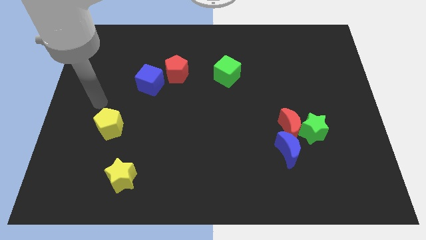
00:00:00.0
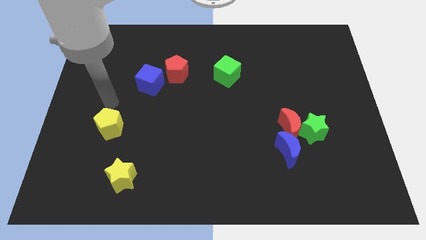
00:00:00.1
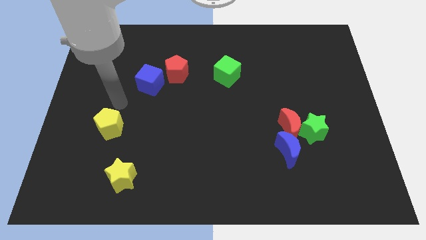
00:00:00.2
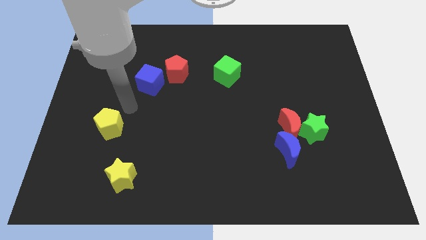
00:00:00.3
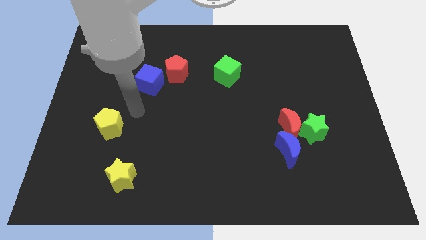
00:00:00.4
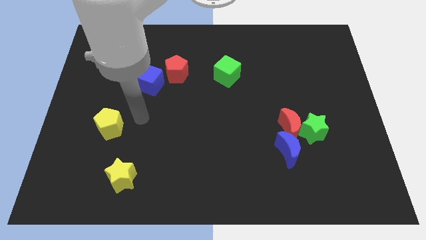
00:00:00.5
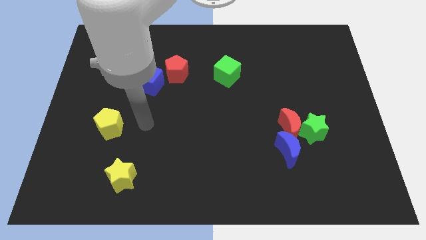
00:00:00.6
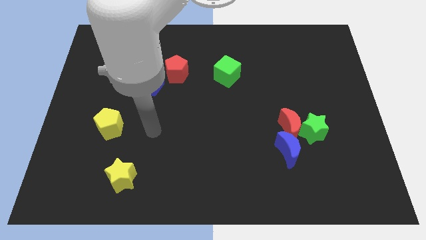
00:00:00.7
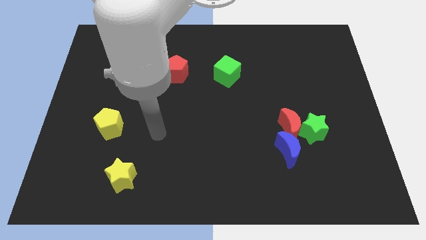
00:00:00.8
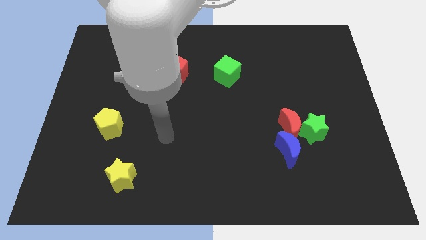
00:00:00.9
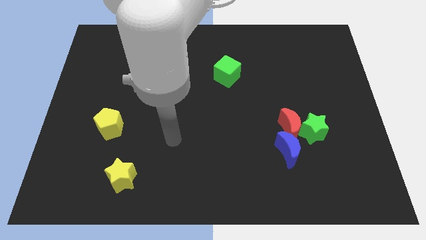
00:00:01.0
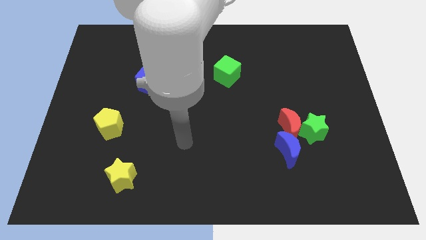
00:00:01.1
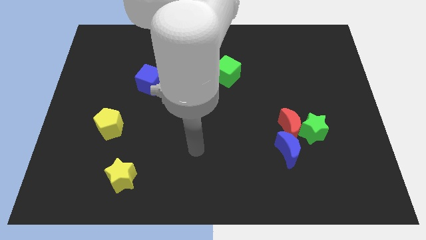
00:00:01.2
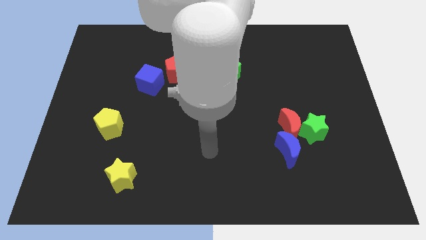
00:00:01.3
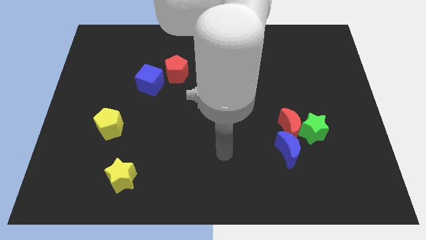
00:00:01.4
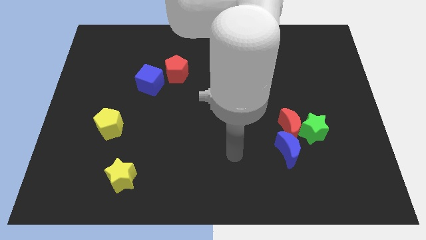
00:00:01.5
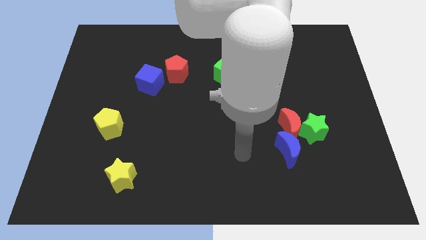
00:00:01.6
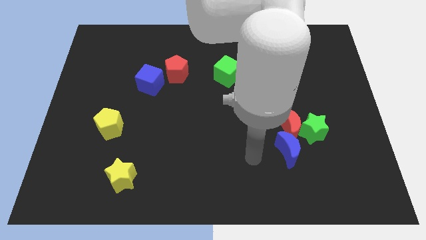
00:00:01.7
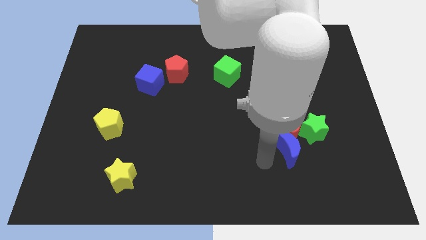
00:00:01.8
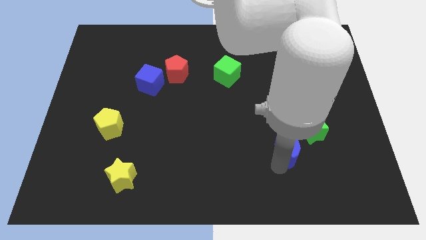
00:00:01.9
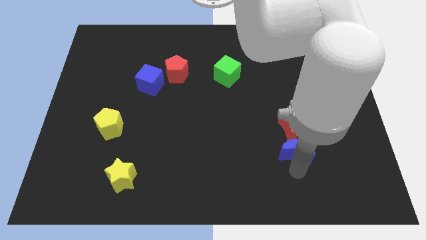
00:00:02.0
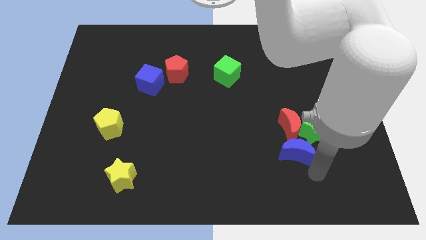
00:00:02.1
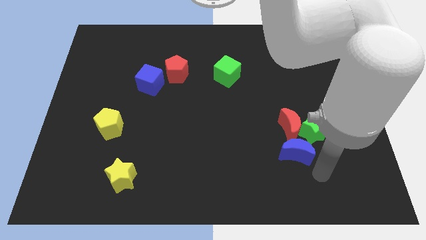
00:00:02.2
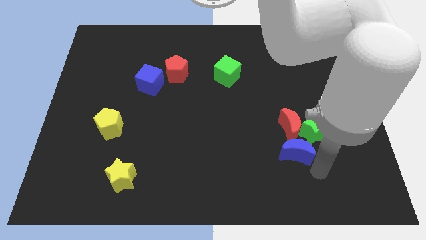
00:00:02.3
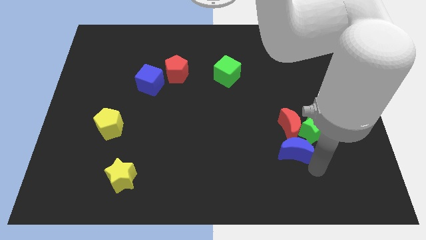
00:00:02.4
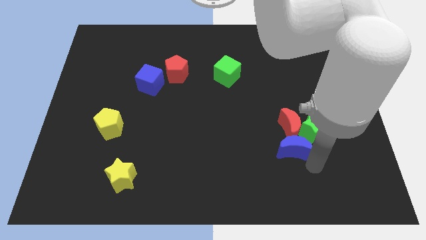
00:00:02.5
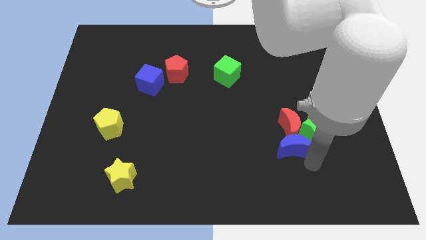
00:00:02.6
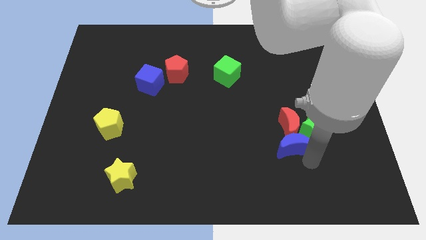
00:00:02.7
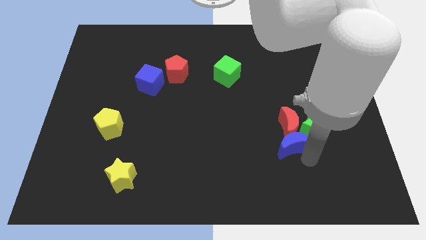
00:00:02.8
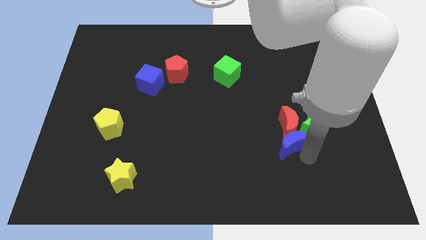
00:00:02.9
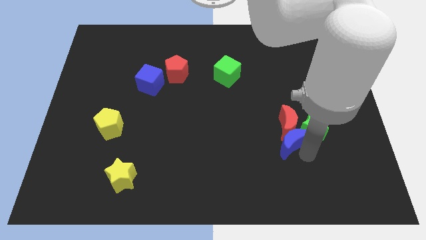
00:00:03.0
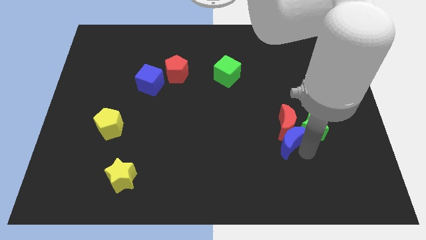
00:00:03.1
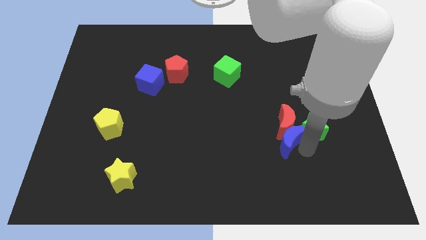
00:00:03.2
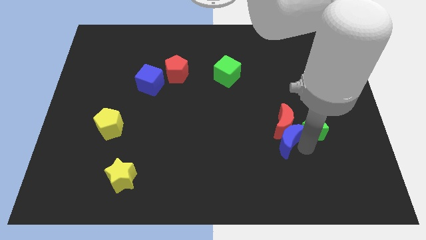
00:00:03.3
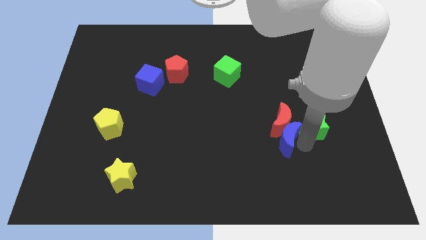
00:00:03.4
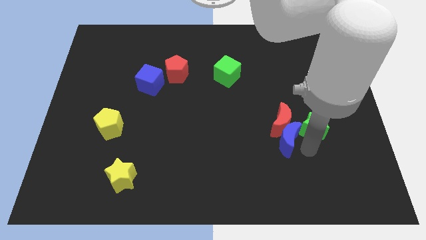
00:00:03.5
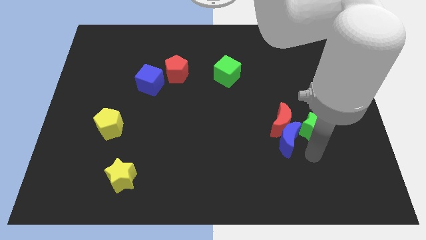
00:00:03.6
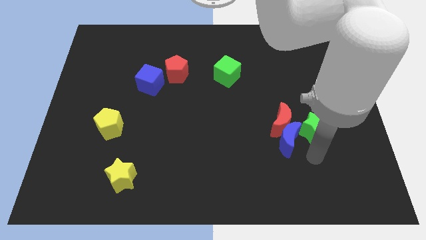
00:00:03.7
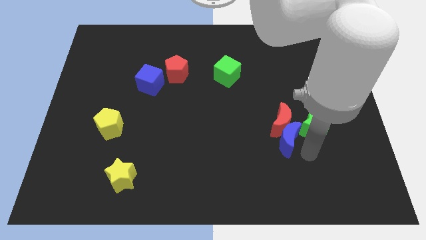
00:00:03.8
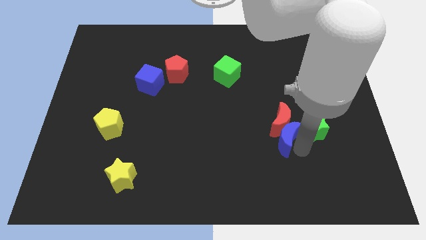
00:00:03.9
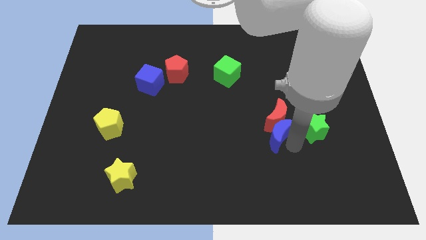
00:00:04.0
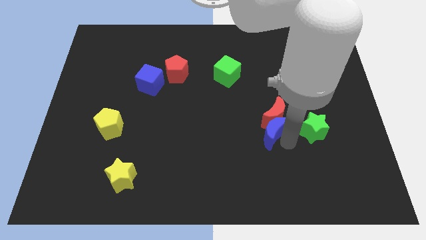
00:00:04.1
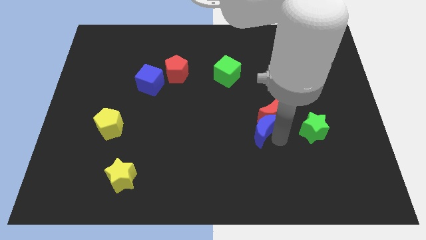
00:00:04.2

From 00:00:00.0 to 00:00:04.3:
move the blue moon somewhat up and then to the left

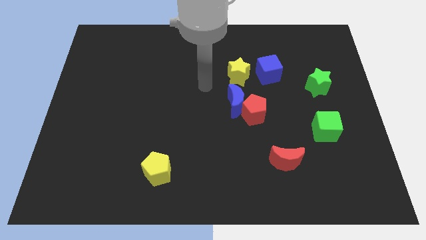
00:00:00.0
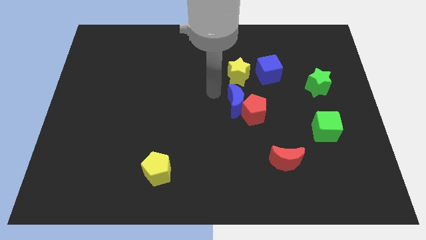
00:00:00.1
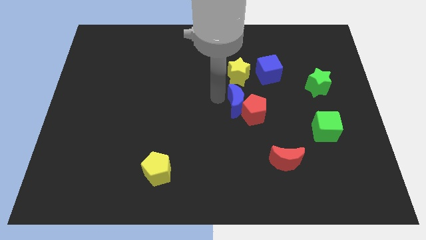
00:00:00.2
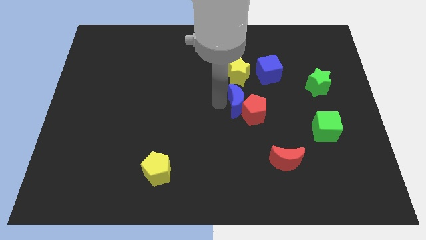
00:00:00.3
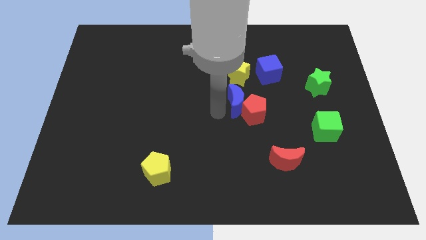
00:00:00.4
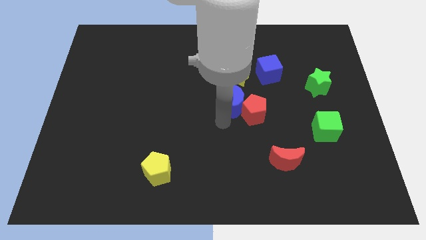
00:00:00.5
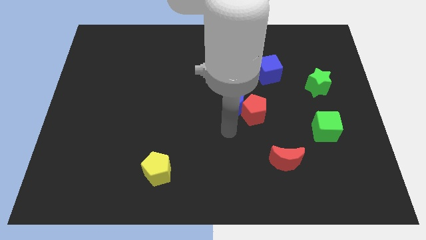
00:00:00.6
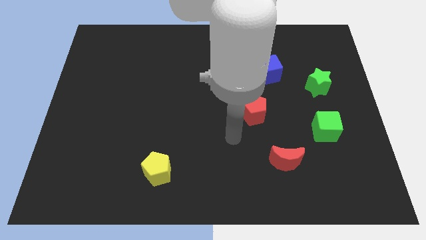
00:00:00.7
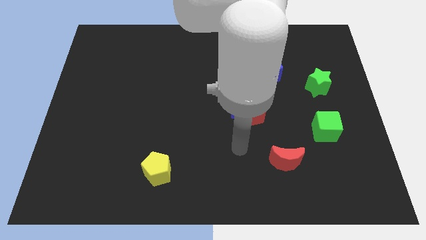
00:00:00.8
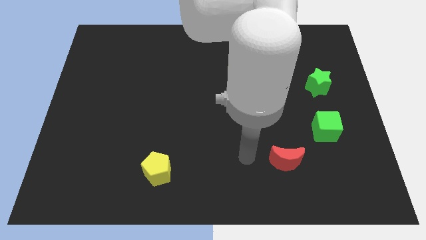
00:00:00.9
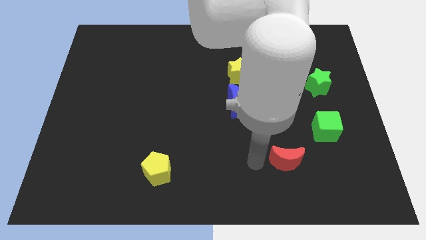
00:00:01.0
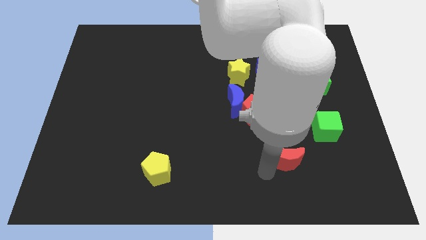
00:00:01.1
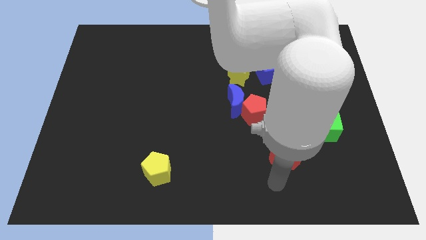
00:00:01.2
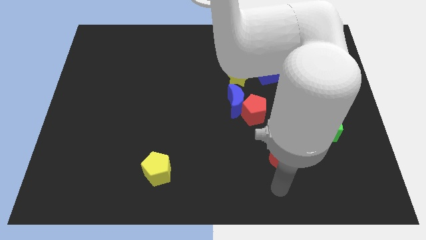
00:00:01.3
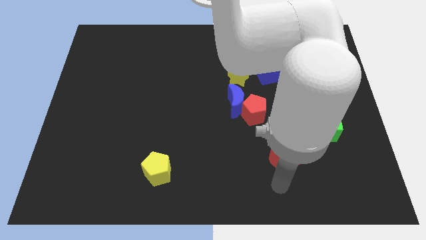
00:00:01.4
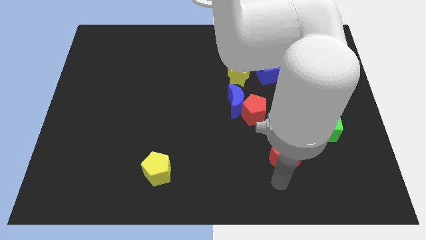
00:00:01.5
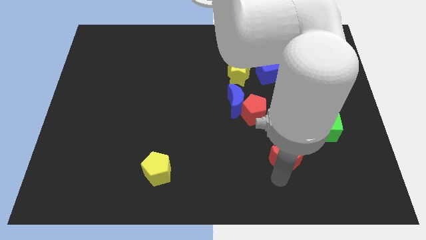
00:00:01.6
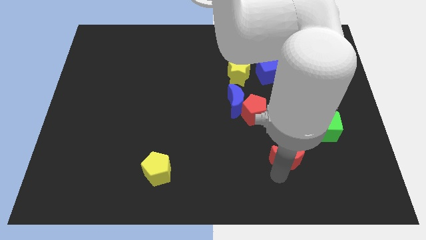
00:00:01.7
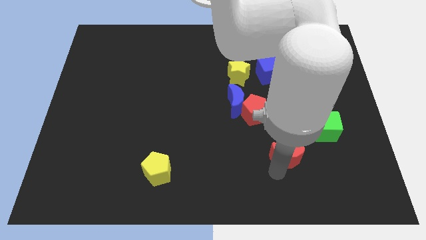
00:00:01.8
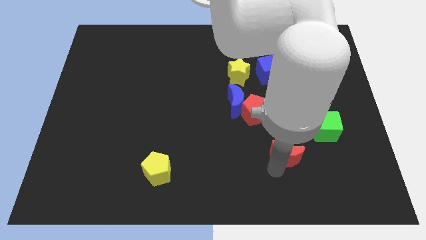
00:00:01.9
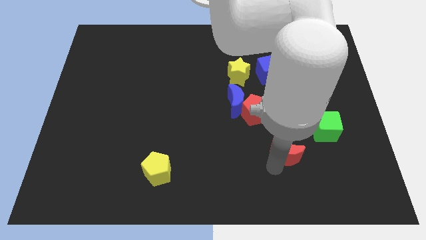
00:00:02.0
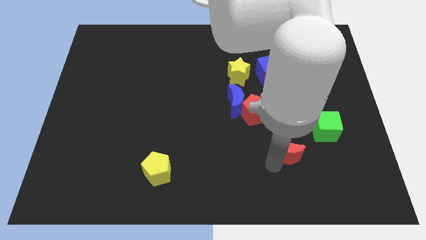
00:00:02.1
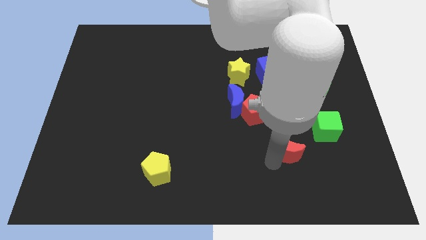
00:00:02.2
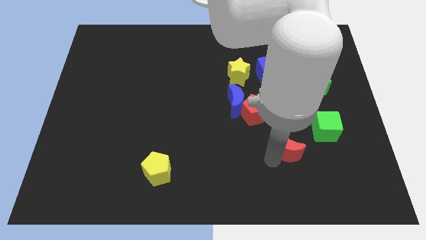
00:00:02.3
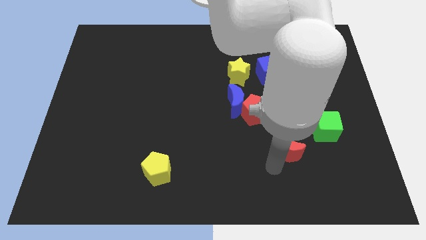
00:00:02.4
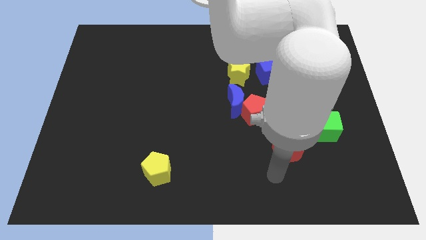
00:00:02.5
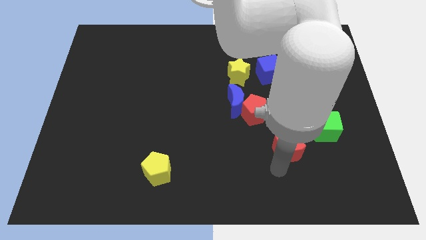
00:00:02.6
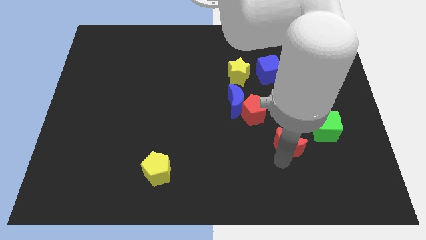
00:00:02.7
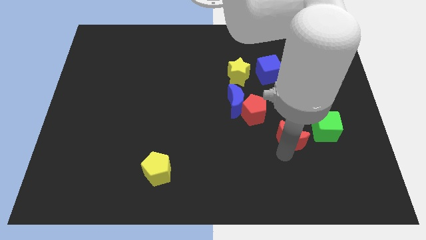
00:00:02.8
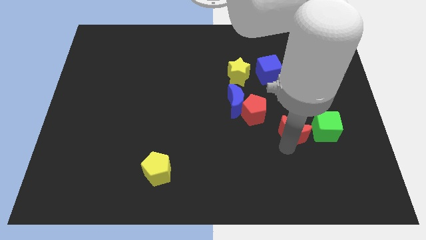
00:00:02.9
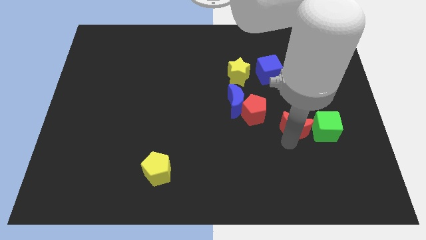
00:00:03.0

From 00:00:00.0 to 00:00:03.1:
move the red moon diagonally upwards and right a little

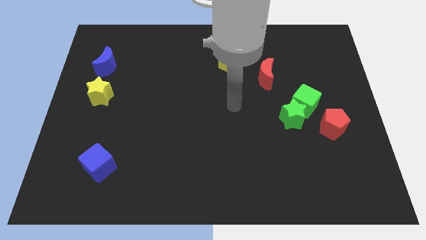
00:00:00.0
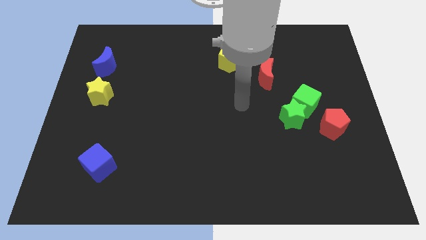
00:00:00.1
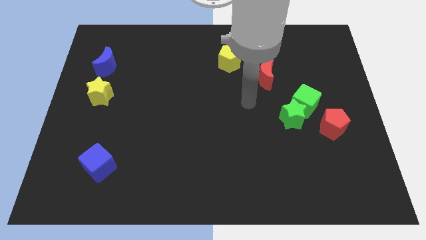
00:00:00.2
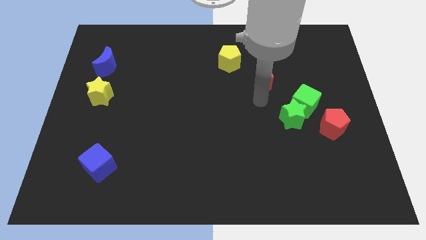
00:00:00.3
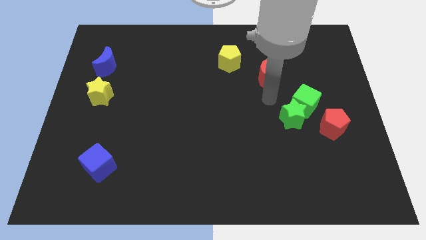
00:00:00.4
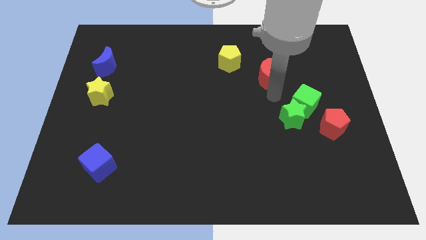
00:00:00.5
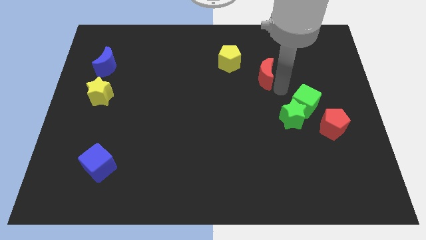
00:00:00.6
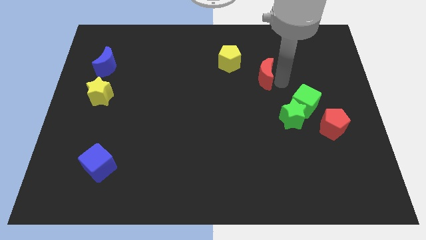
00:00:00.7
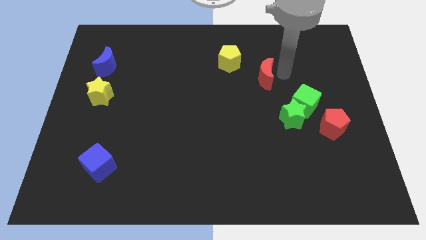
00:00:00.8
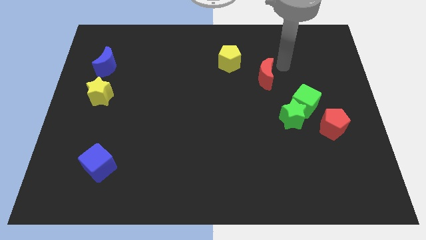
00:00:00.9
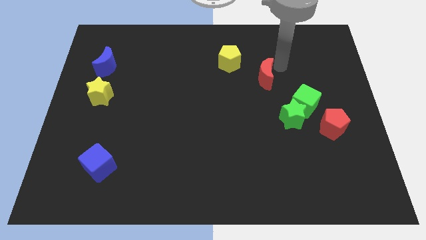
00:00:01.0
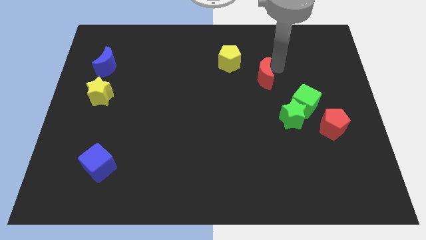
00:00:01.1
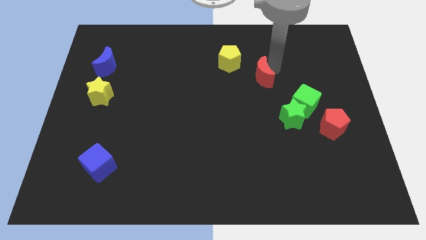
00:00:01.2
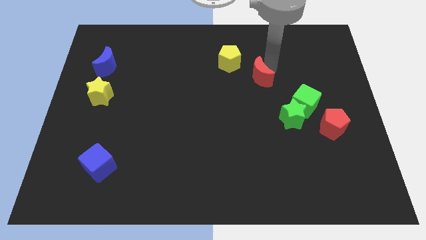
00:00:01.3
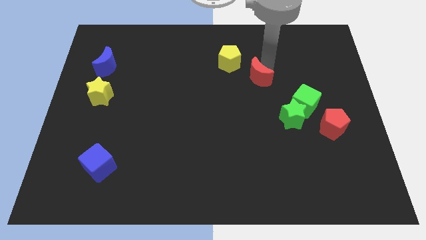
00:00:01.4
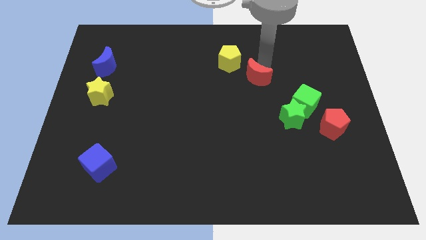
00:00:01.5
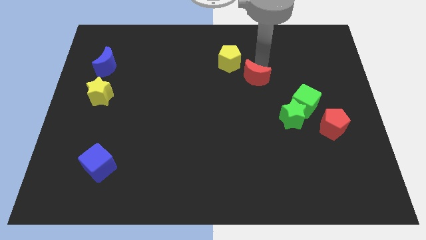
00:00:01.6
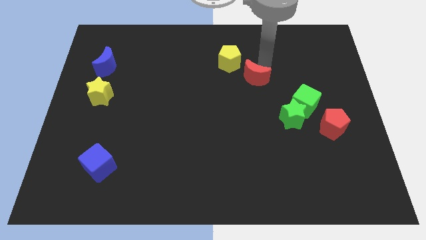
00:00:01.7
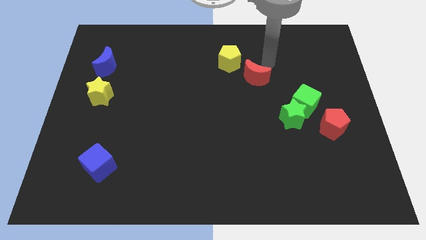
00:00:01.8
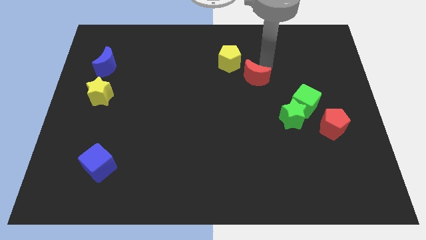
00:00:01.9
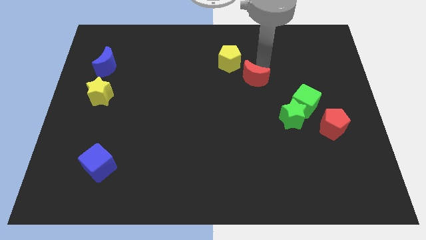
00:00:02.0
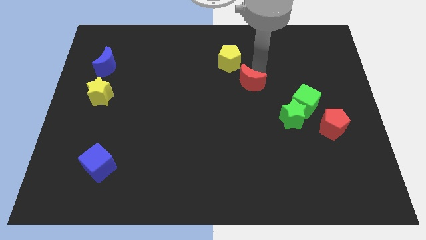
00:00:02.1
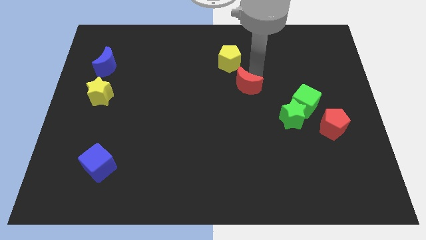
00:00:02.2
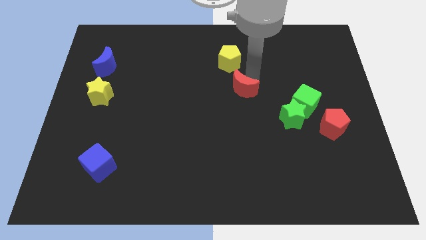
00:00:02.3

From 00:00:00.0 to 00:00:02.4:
move the red moon somewhat down and to the left
